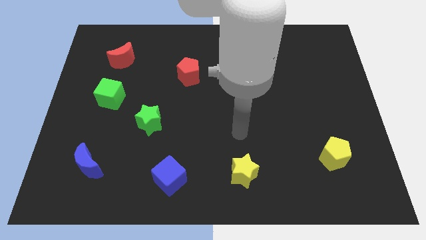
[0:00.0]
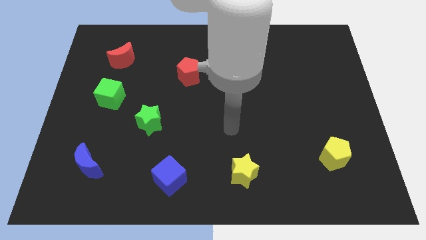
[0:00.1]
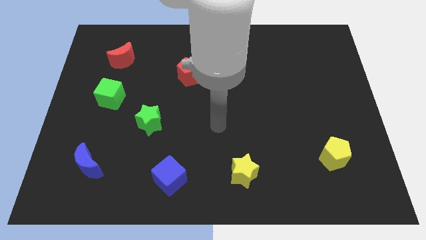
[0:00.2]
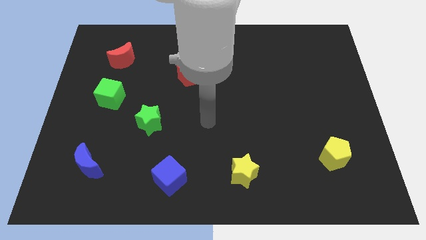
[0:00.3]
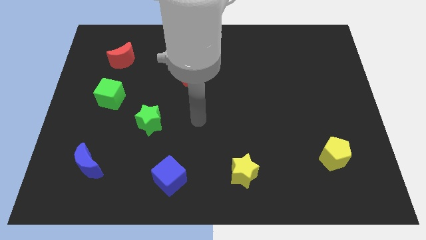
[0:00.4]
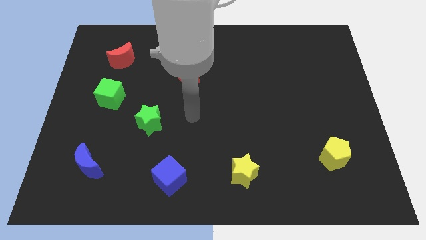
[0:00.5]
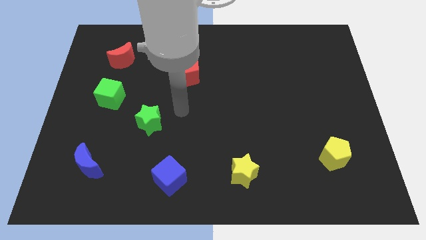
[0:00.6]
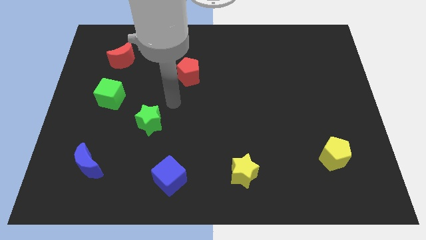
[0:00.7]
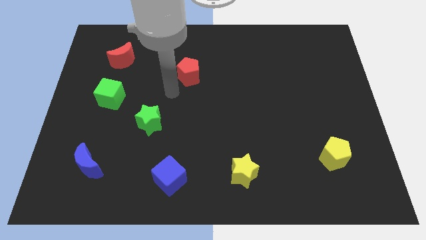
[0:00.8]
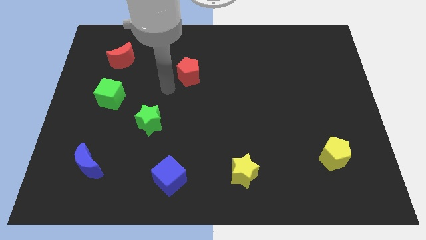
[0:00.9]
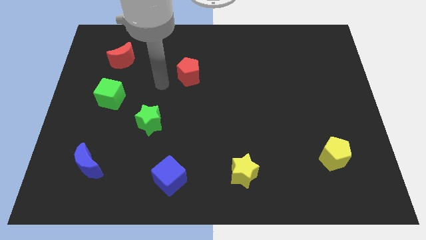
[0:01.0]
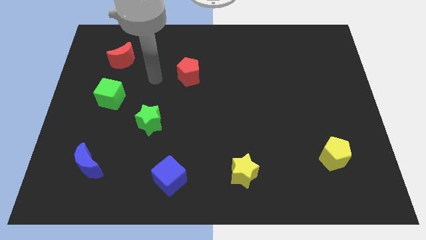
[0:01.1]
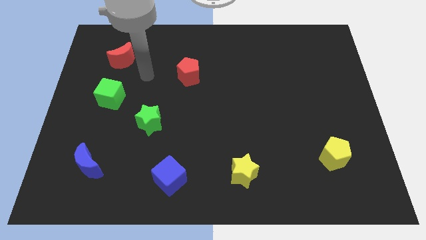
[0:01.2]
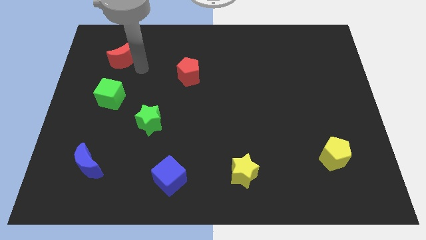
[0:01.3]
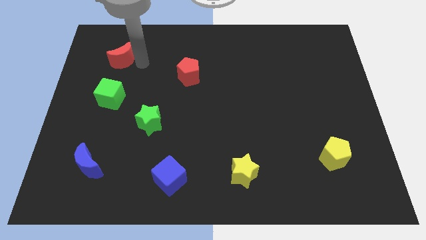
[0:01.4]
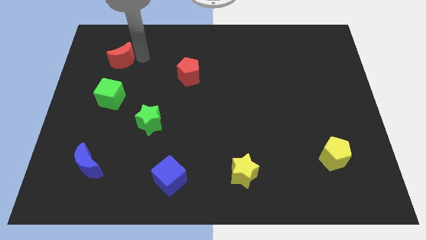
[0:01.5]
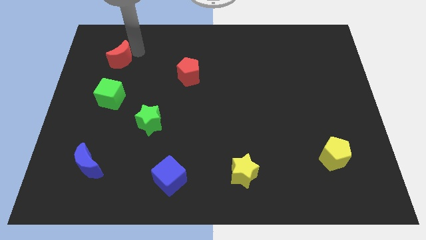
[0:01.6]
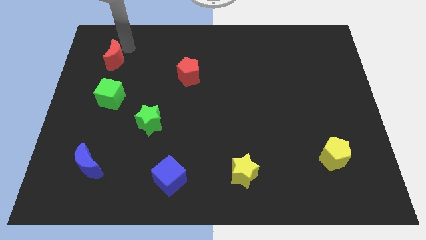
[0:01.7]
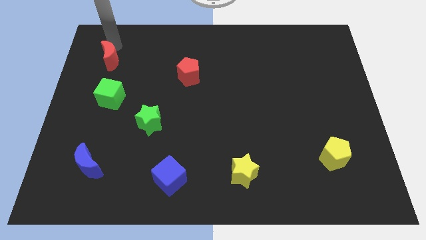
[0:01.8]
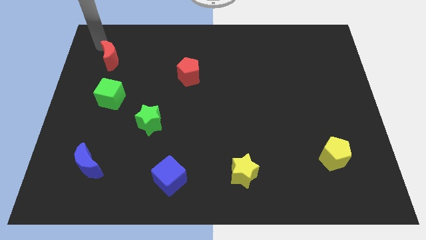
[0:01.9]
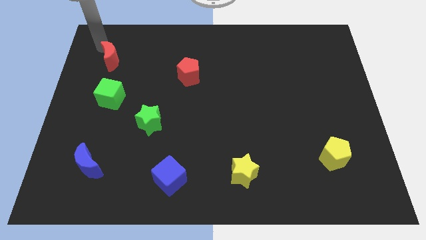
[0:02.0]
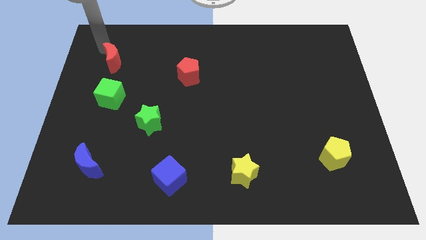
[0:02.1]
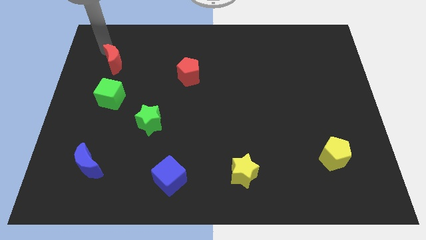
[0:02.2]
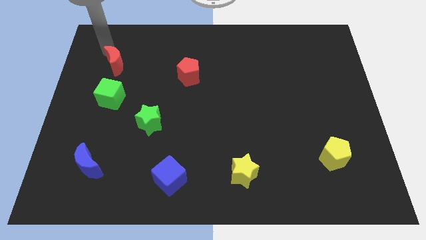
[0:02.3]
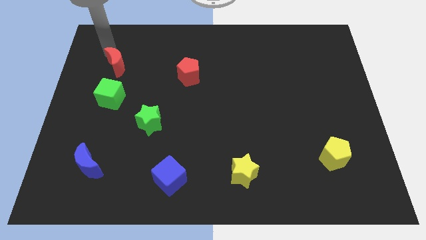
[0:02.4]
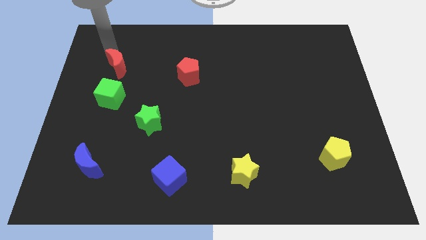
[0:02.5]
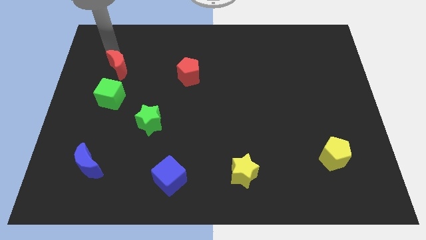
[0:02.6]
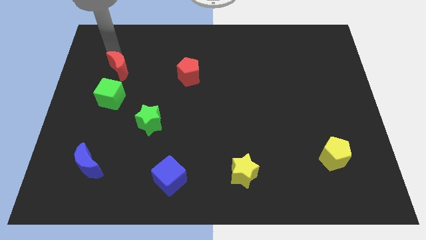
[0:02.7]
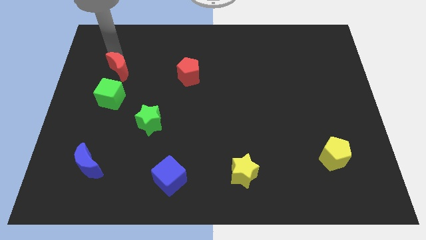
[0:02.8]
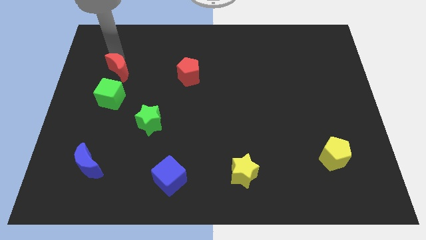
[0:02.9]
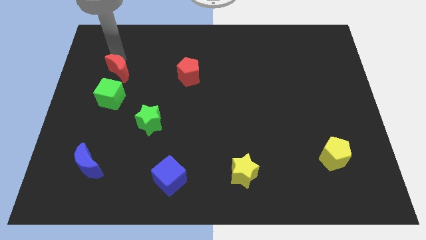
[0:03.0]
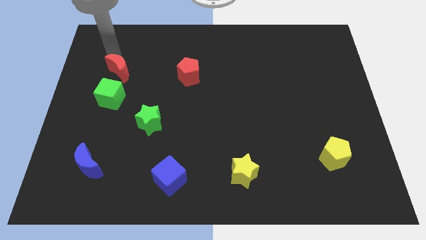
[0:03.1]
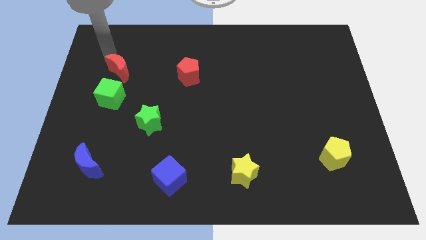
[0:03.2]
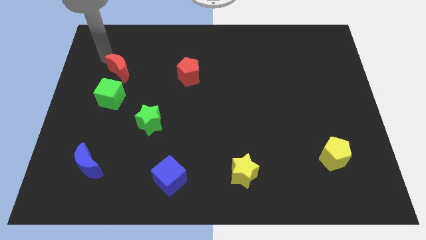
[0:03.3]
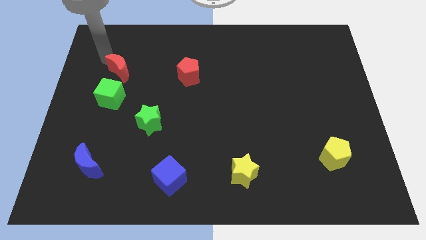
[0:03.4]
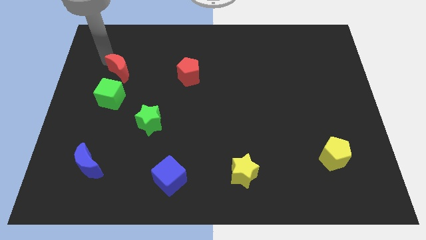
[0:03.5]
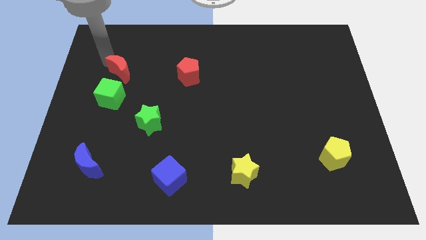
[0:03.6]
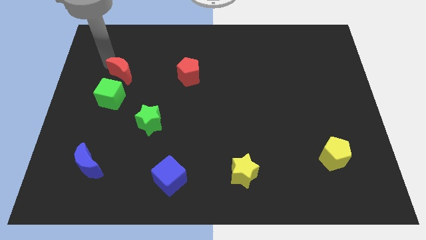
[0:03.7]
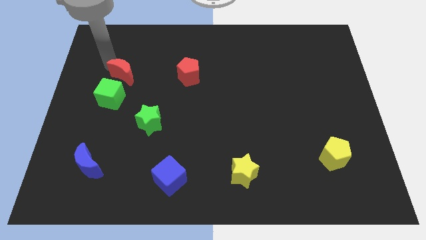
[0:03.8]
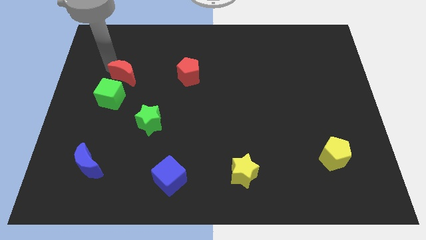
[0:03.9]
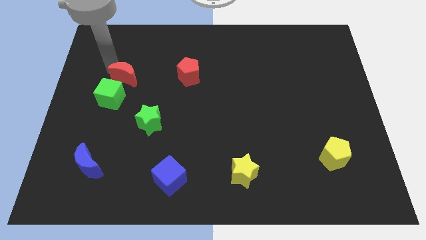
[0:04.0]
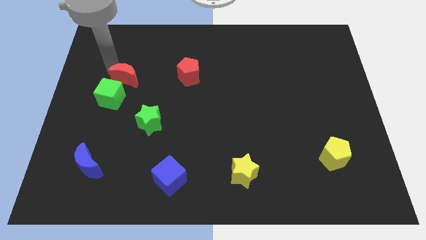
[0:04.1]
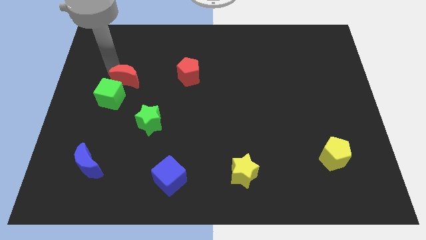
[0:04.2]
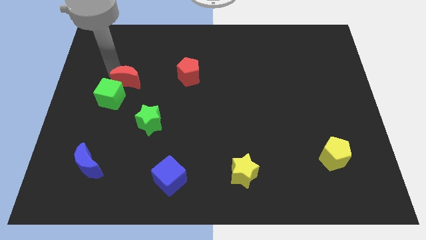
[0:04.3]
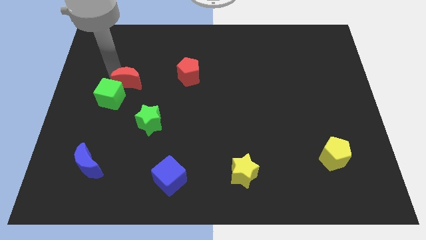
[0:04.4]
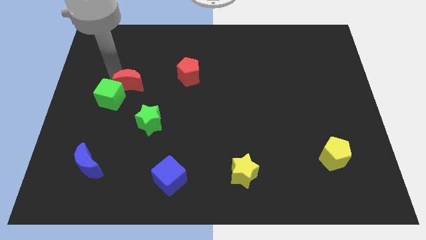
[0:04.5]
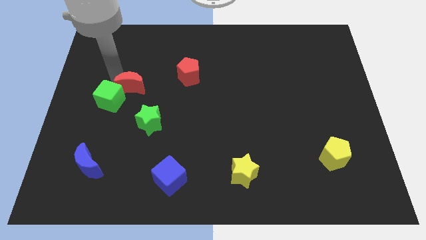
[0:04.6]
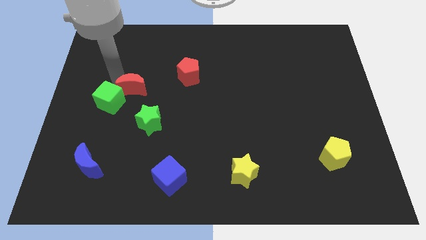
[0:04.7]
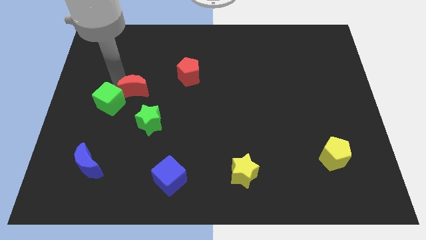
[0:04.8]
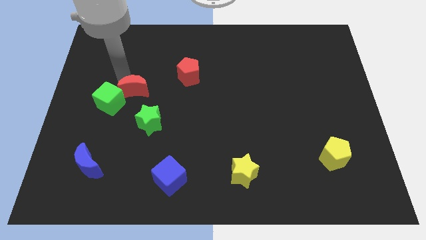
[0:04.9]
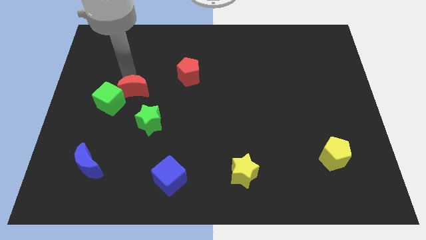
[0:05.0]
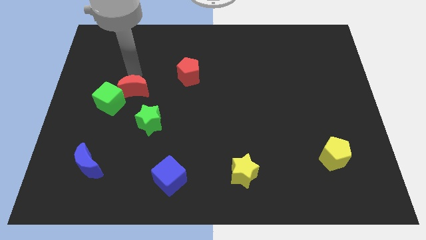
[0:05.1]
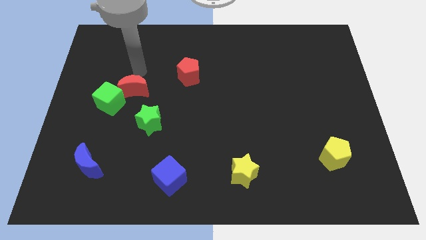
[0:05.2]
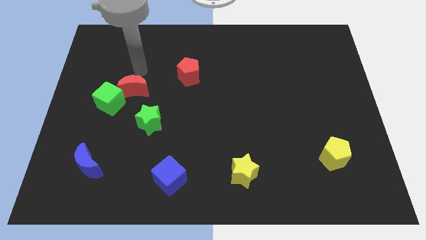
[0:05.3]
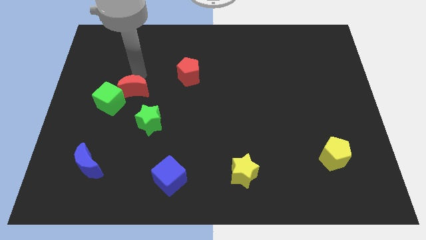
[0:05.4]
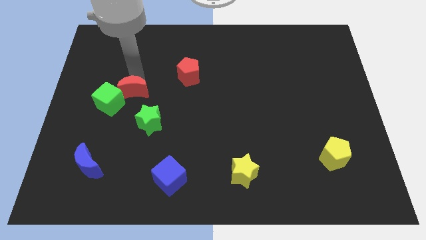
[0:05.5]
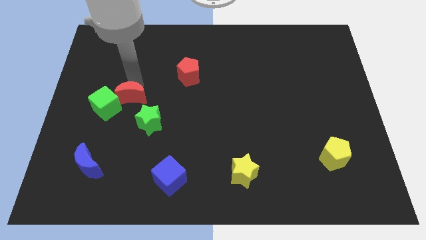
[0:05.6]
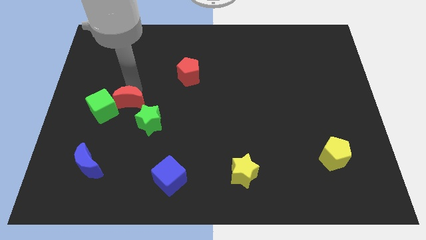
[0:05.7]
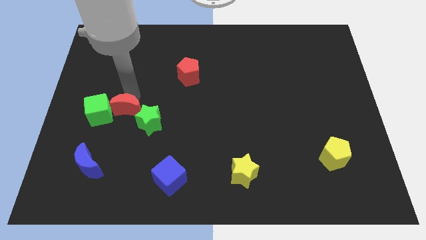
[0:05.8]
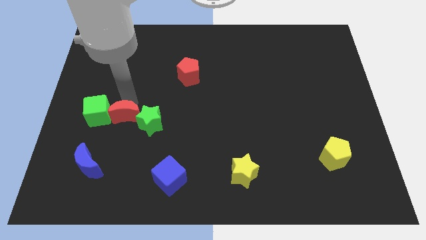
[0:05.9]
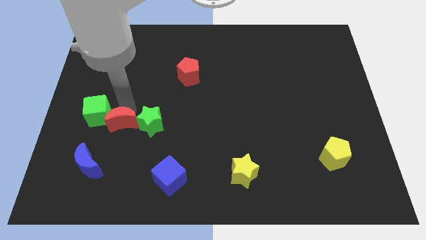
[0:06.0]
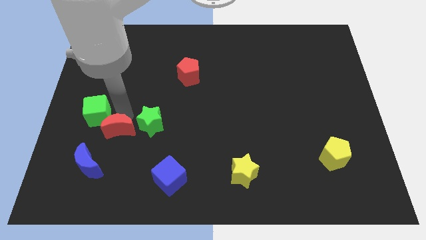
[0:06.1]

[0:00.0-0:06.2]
slide the red moon to the top right side of the blue moon
